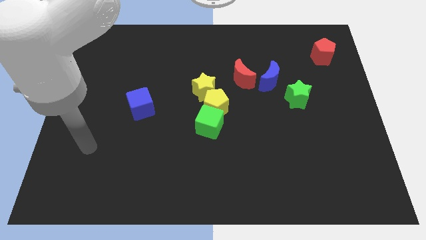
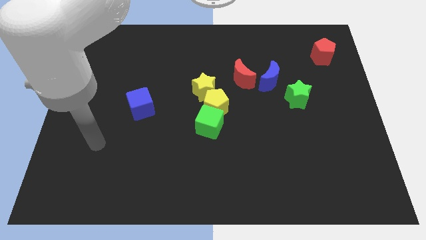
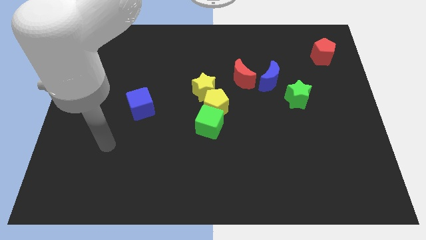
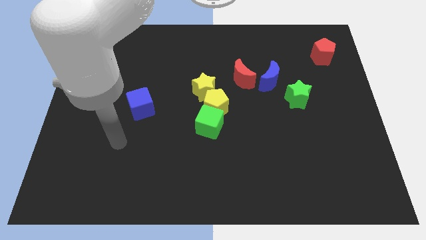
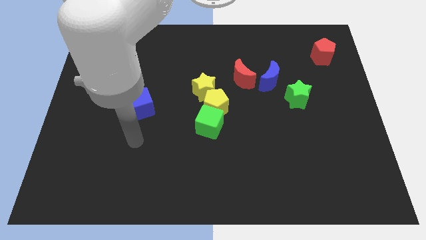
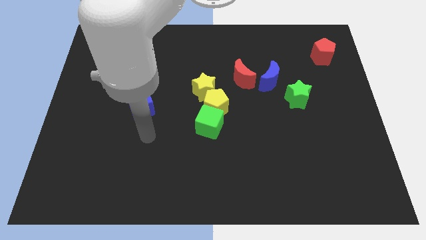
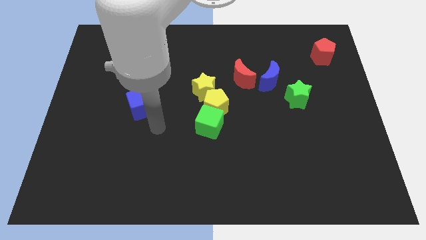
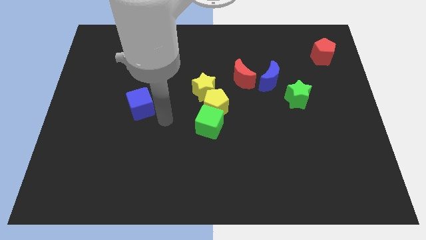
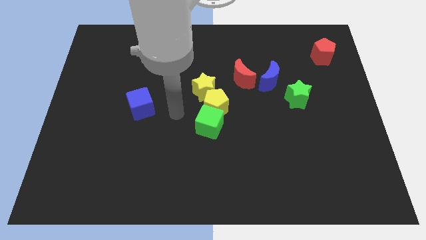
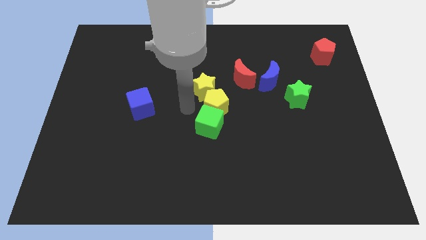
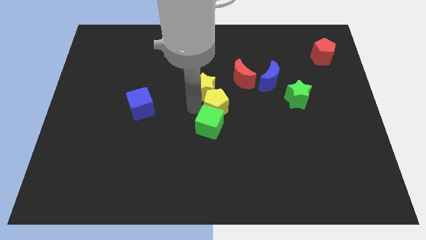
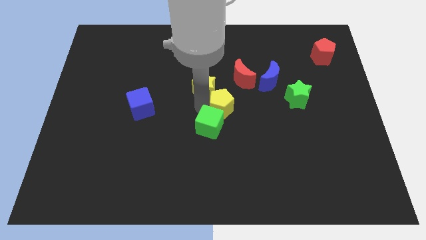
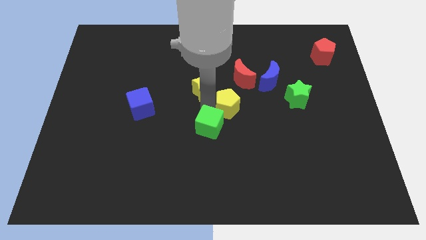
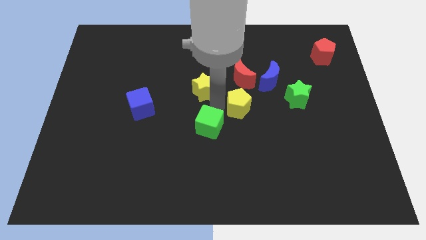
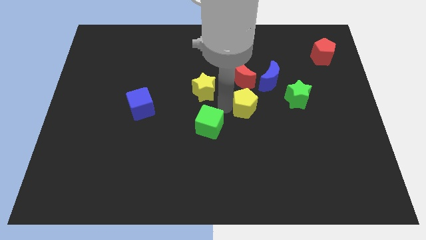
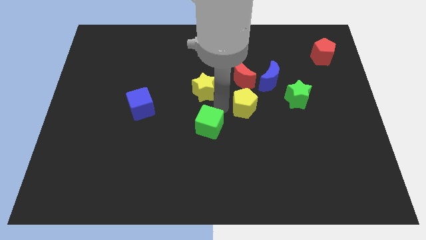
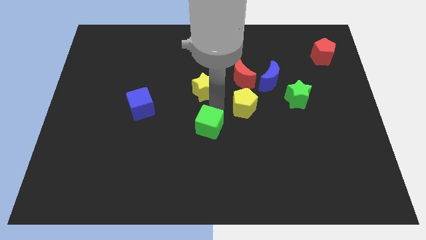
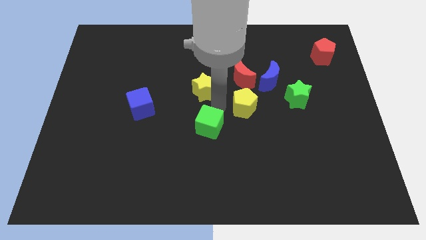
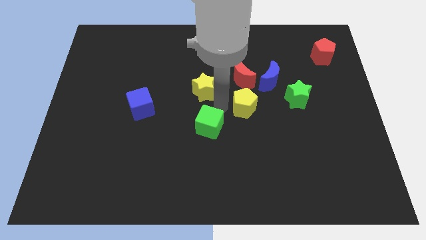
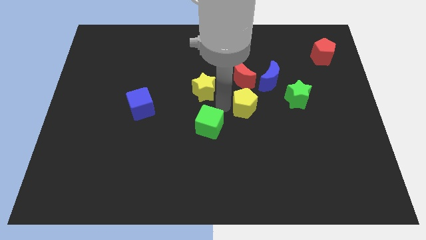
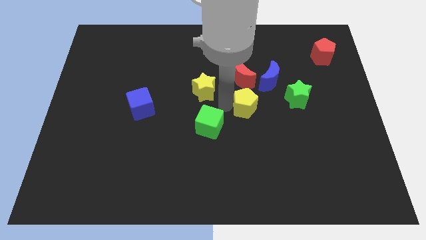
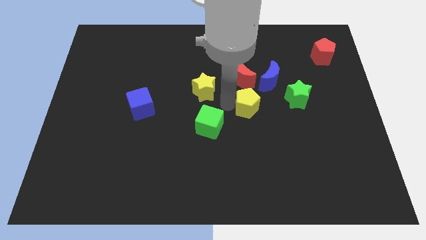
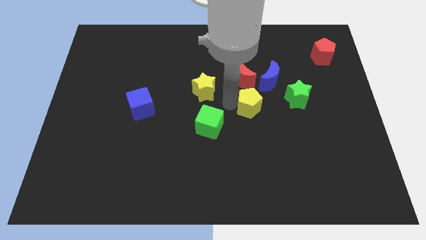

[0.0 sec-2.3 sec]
separate the yellow pentagon from the yellow star and green cube

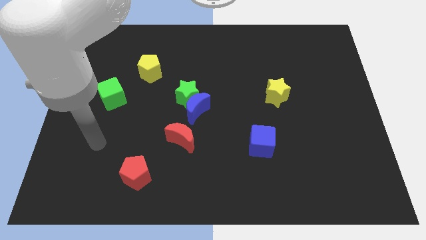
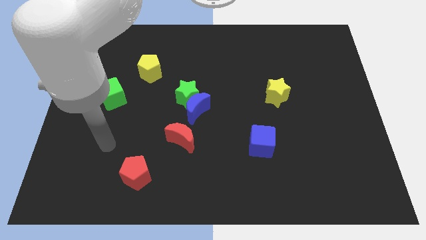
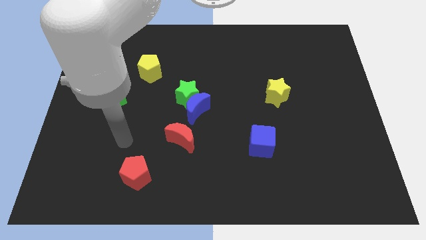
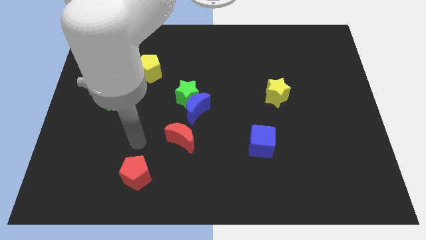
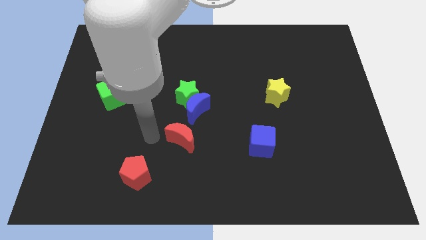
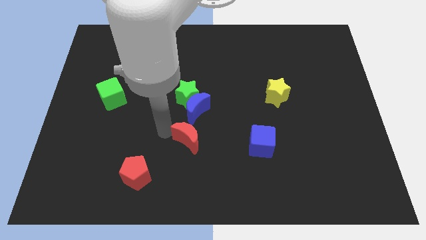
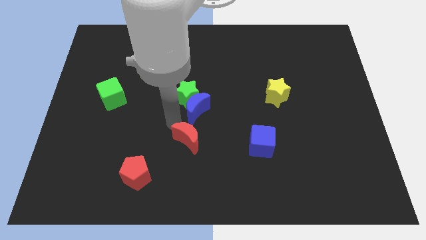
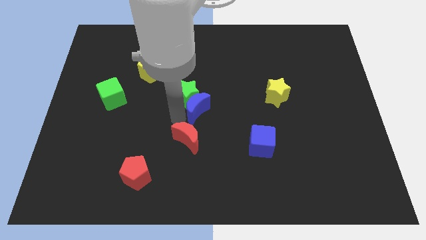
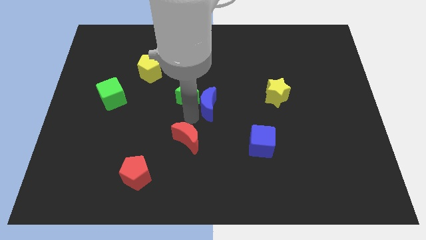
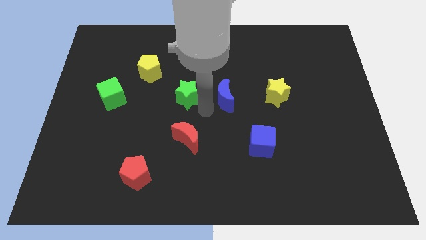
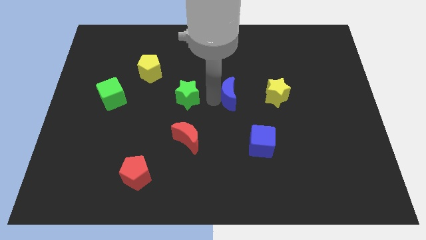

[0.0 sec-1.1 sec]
separate the green star from the blue moon

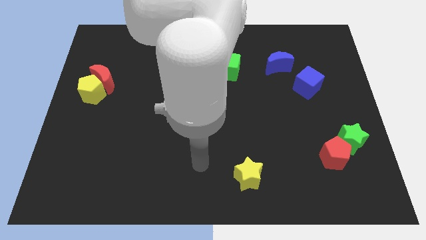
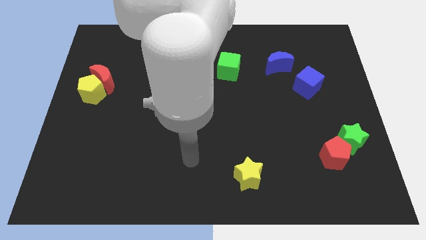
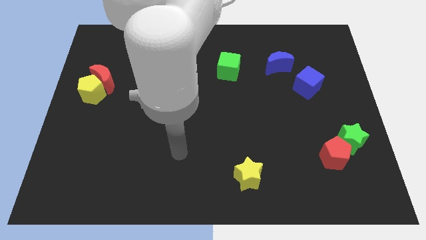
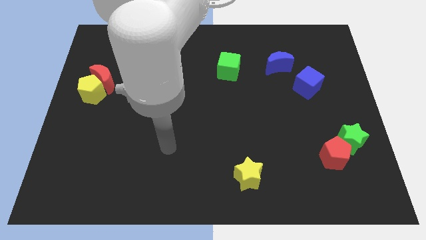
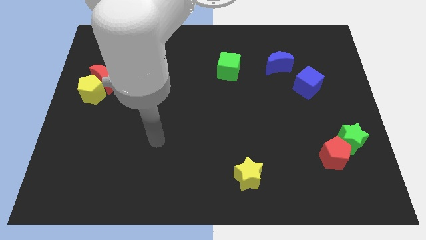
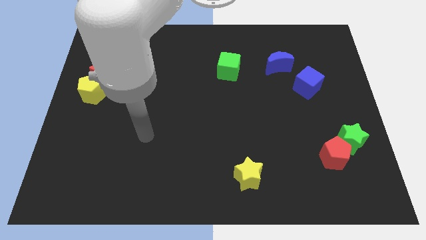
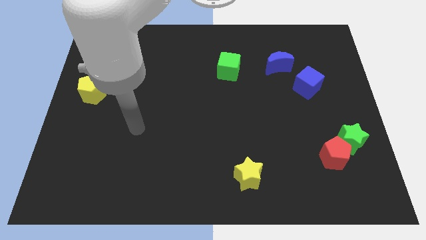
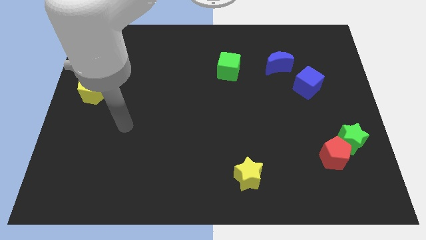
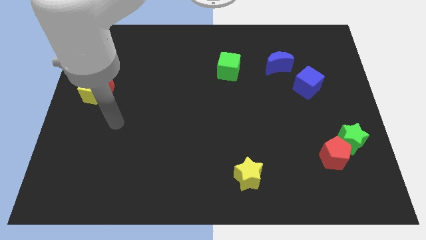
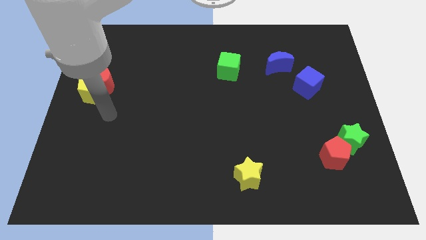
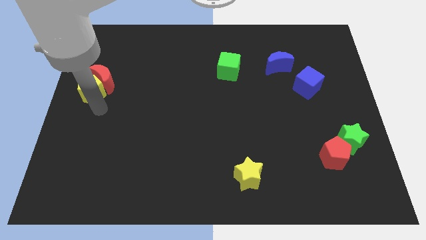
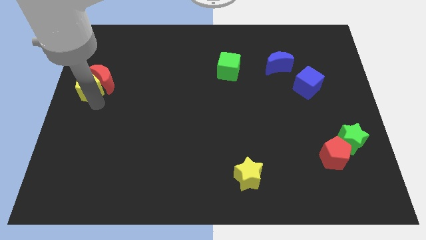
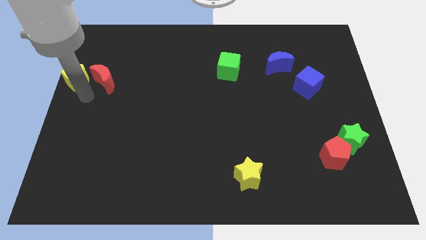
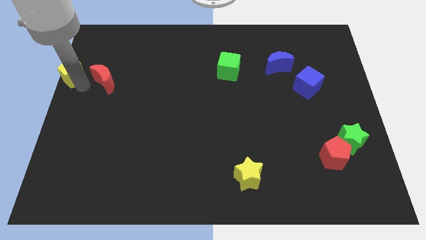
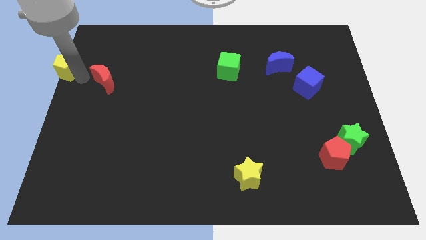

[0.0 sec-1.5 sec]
move the red moon away from the yellow pentagon

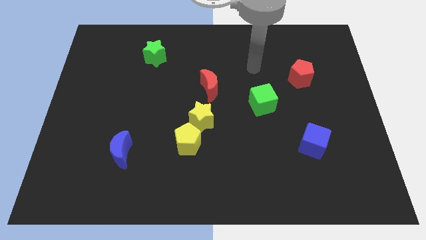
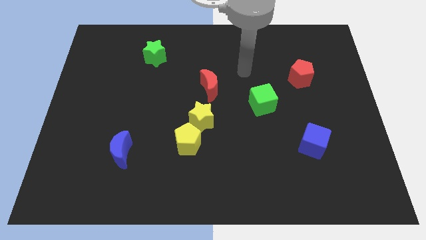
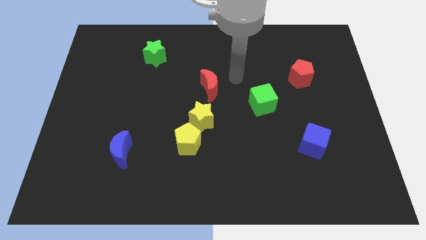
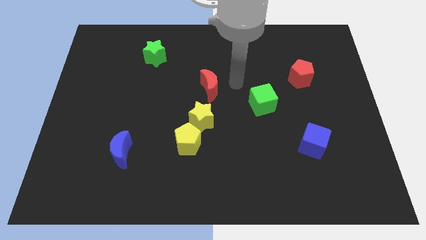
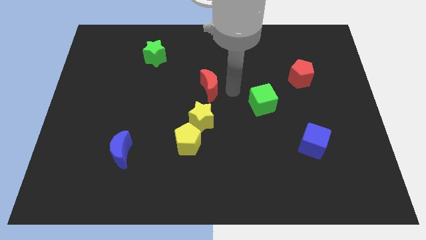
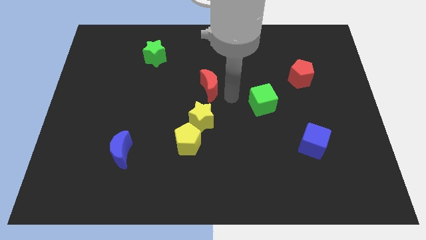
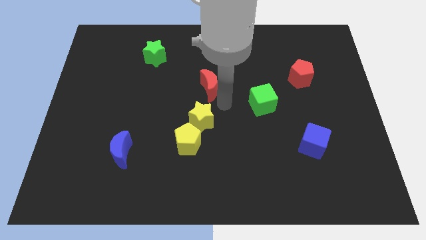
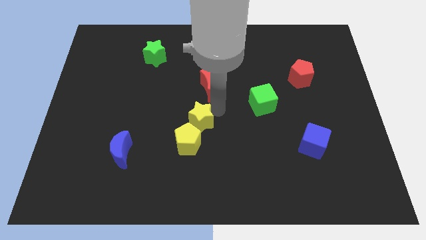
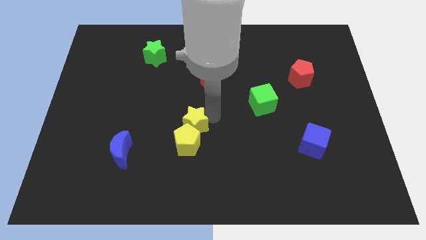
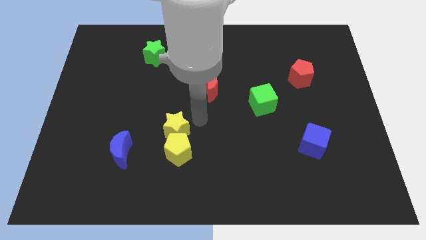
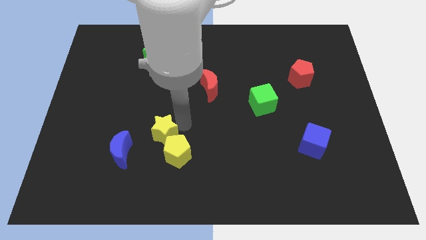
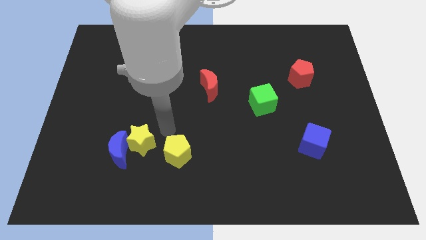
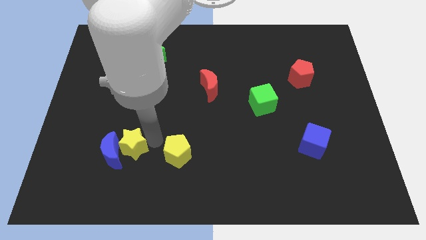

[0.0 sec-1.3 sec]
move the yellow pentagon away from the yellow star

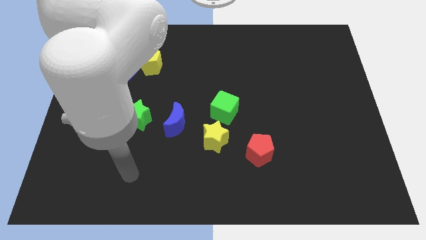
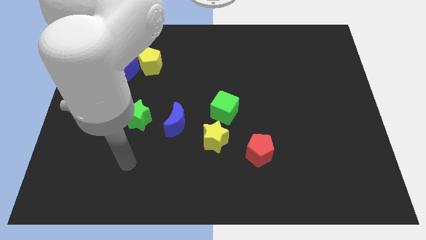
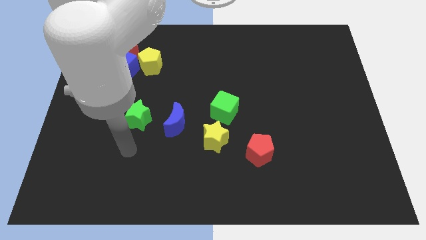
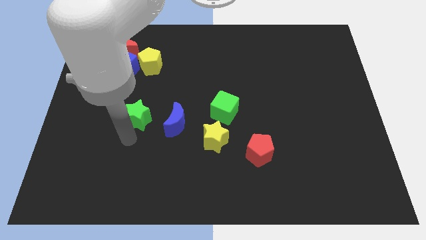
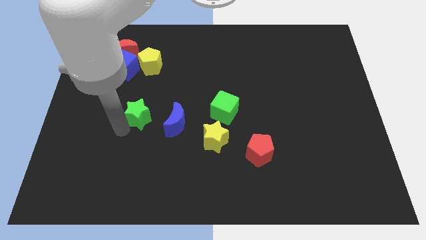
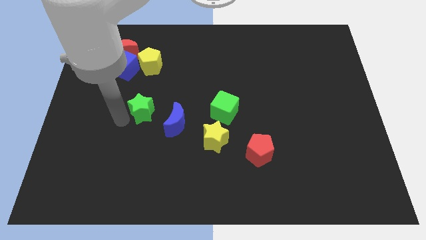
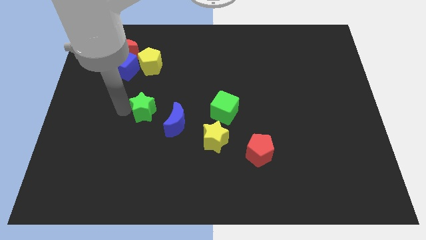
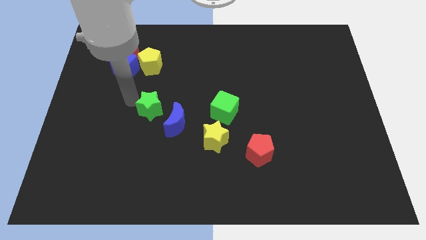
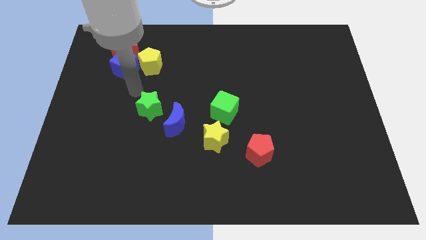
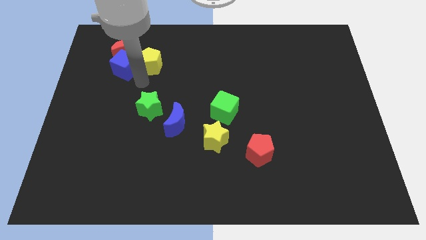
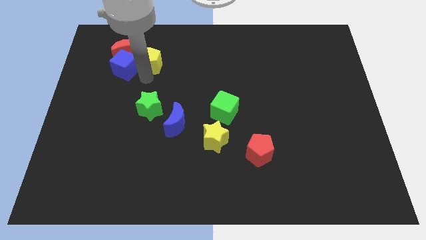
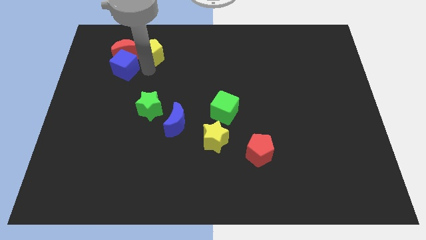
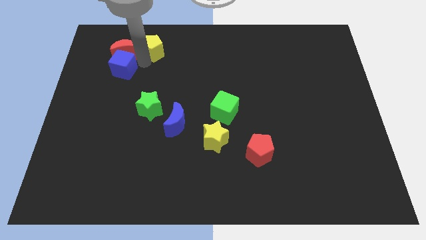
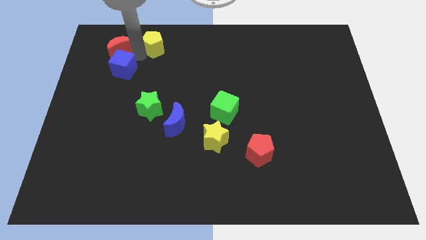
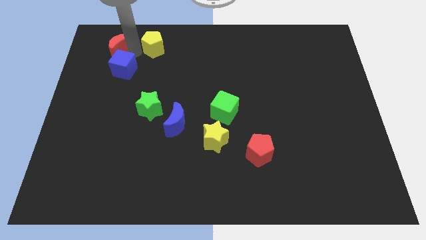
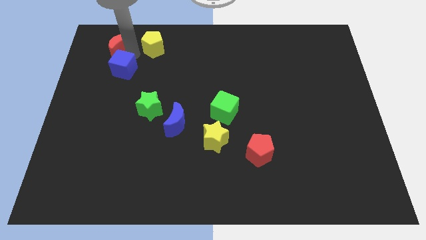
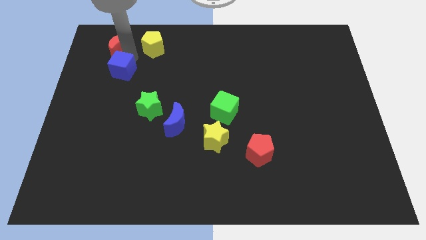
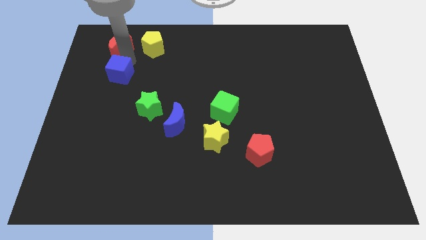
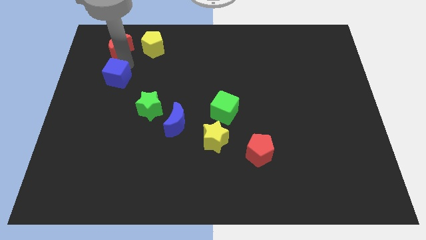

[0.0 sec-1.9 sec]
separate the blue cube from the red moon and yellow pentagon

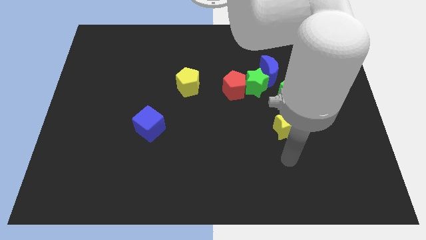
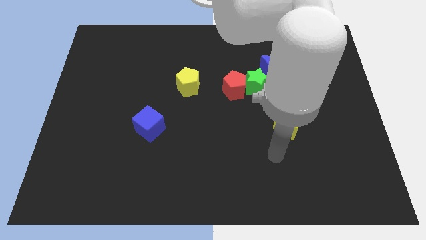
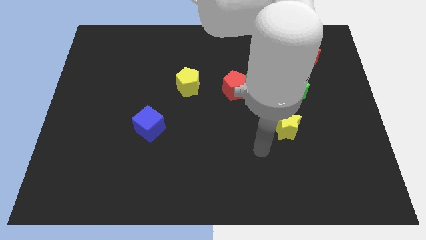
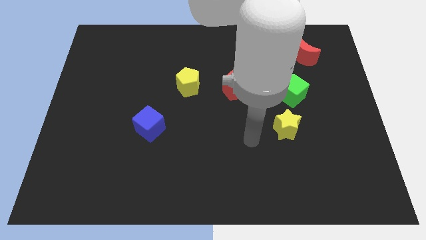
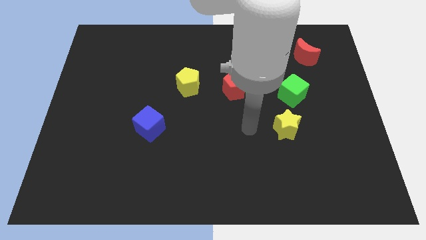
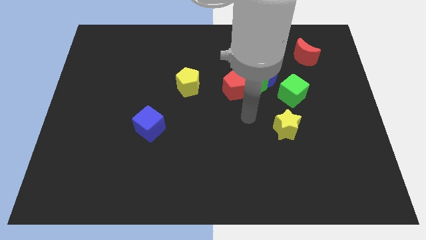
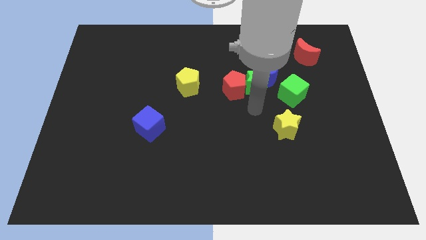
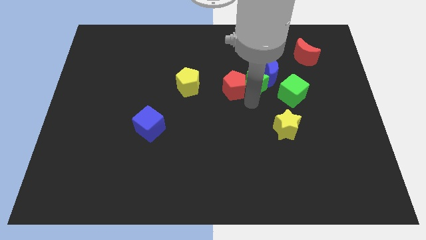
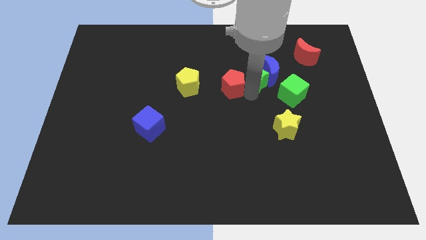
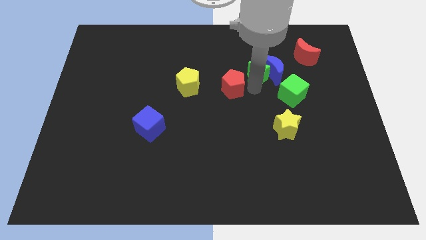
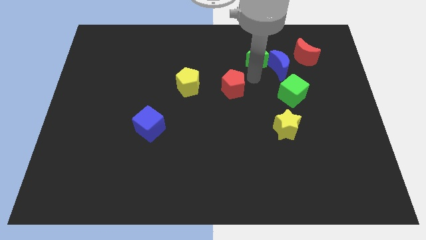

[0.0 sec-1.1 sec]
move the red pentagon away from the green star

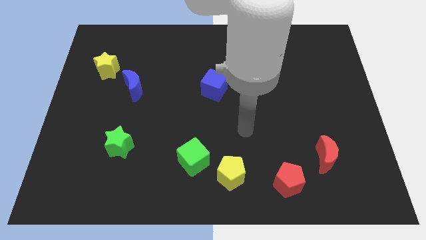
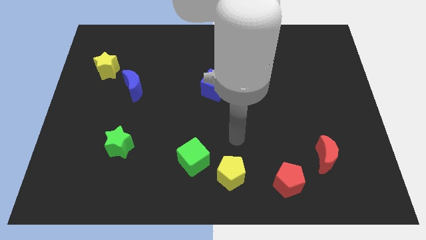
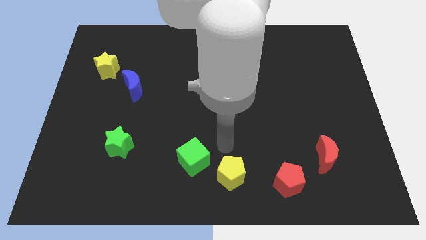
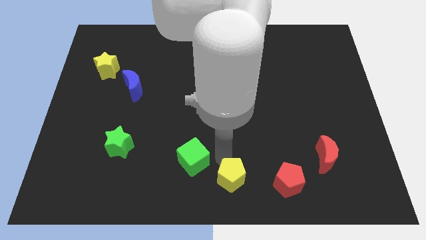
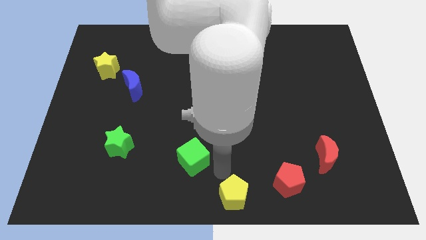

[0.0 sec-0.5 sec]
separate the green cube from the yellow pentagon
